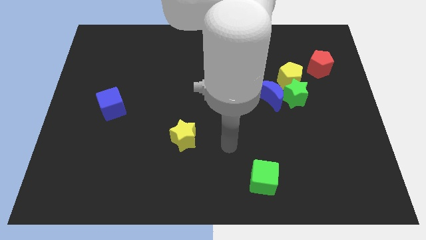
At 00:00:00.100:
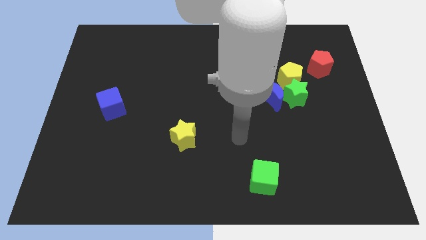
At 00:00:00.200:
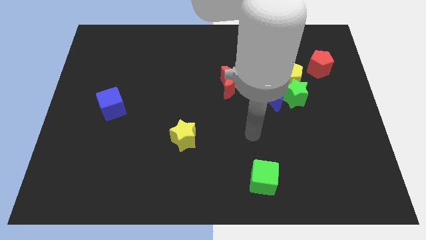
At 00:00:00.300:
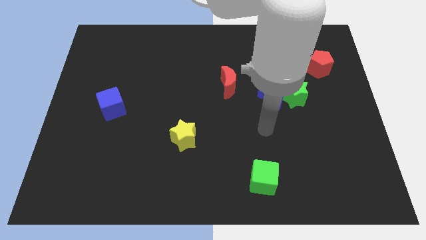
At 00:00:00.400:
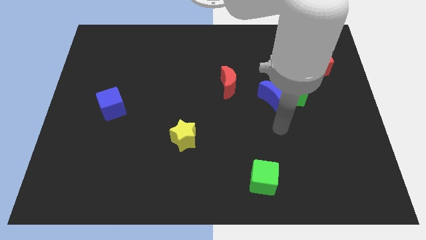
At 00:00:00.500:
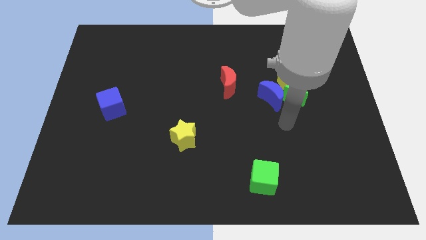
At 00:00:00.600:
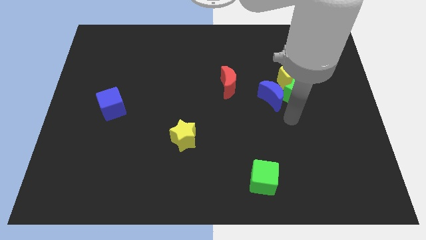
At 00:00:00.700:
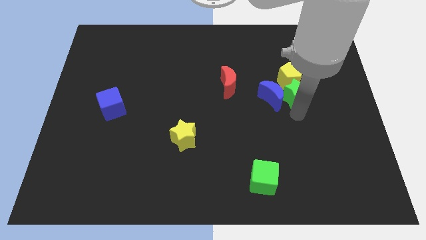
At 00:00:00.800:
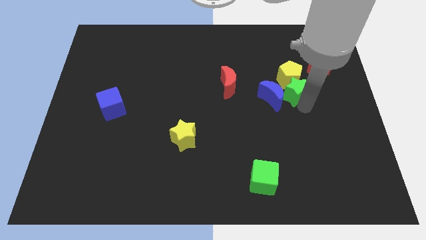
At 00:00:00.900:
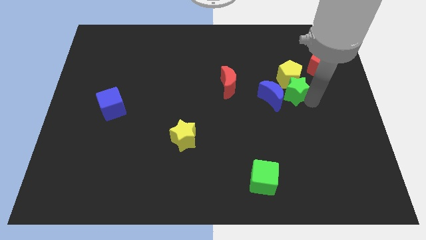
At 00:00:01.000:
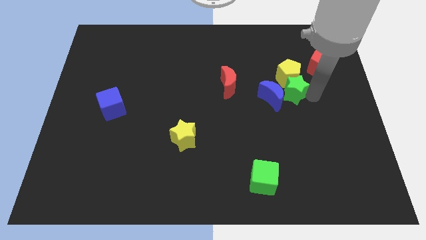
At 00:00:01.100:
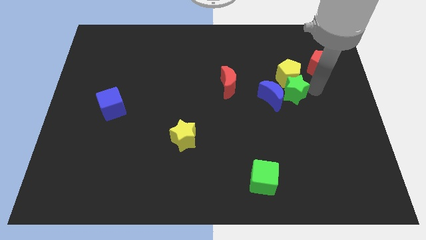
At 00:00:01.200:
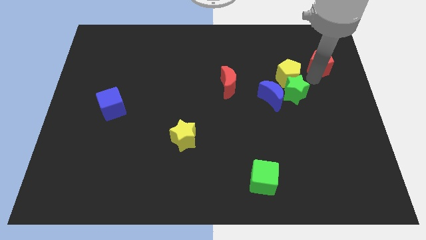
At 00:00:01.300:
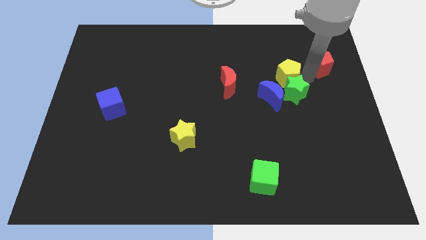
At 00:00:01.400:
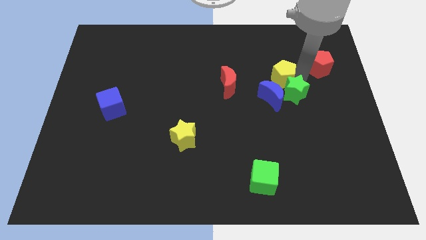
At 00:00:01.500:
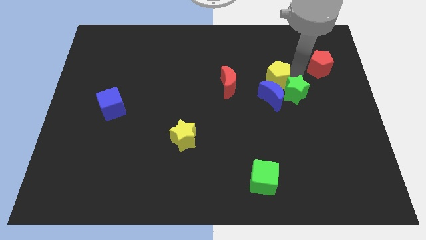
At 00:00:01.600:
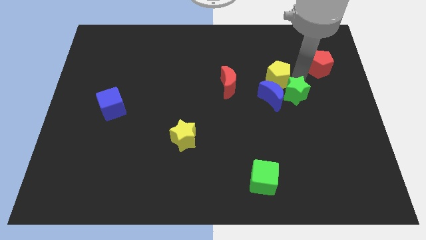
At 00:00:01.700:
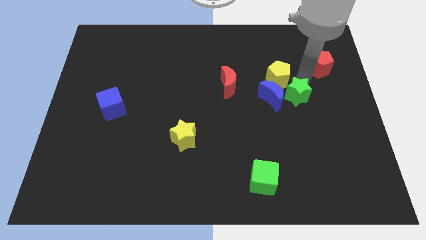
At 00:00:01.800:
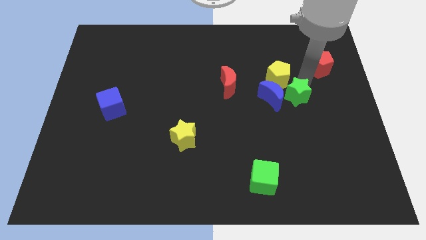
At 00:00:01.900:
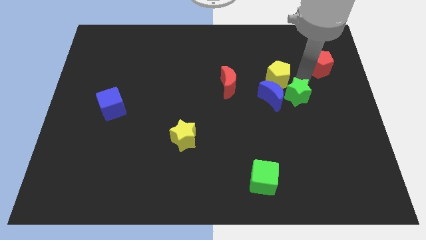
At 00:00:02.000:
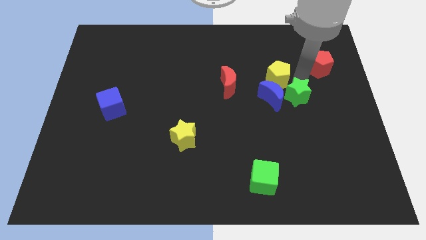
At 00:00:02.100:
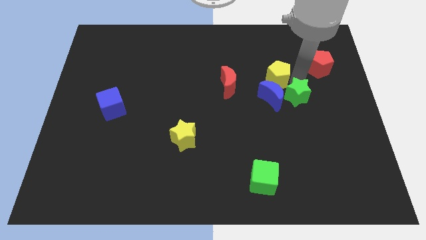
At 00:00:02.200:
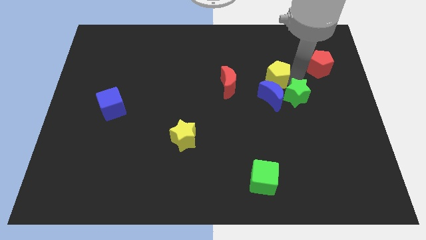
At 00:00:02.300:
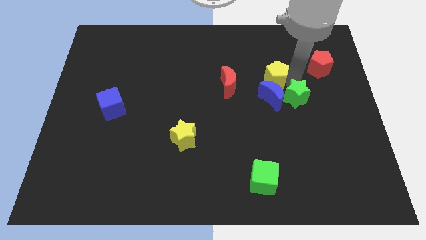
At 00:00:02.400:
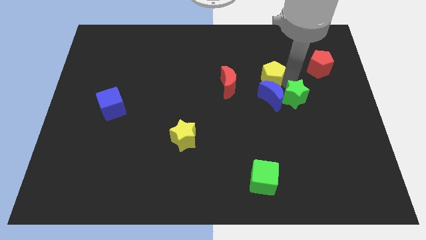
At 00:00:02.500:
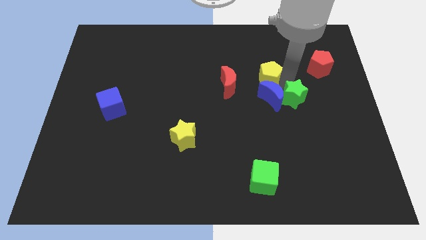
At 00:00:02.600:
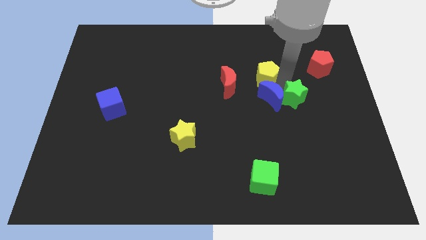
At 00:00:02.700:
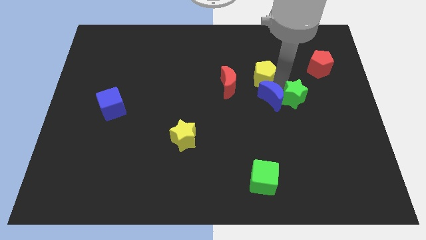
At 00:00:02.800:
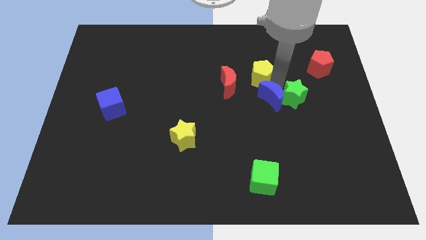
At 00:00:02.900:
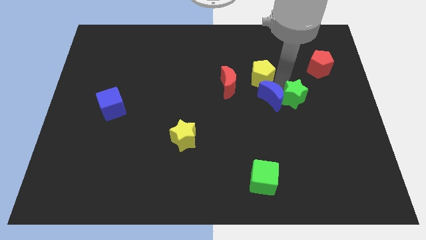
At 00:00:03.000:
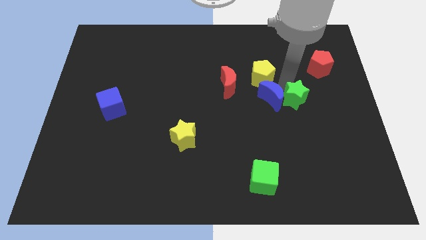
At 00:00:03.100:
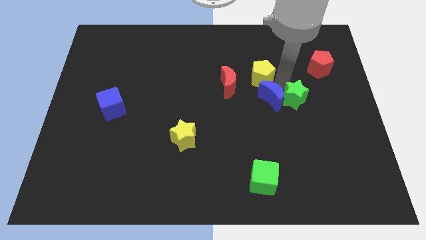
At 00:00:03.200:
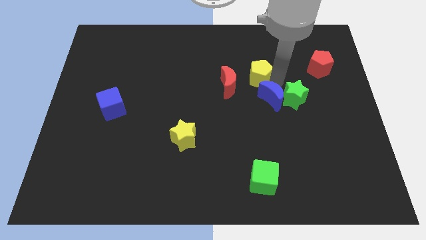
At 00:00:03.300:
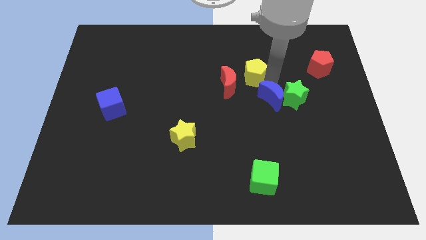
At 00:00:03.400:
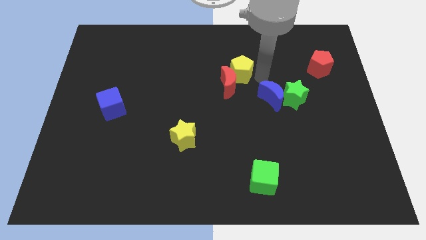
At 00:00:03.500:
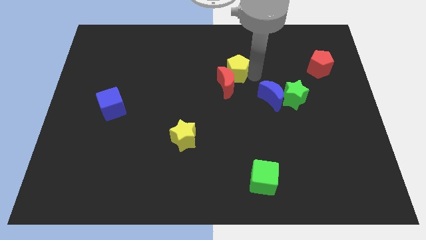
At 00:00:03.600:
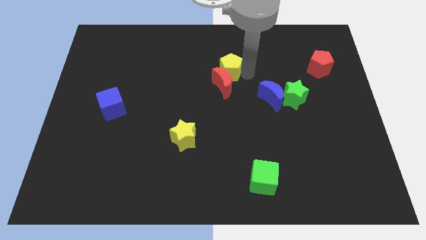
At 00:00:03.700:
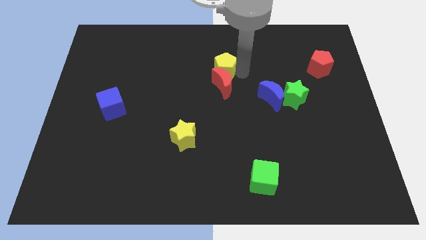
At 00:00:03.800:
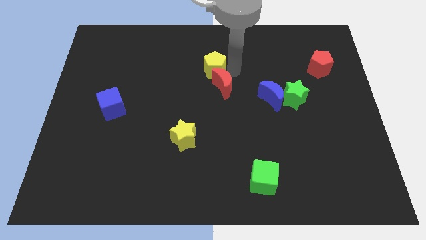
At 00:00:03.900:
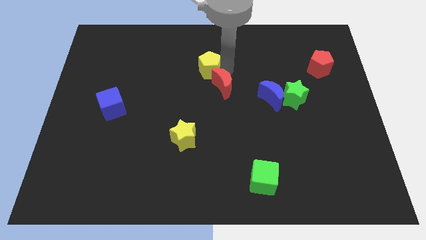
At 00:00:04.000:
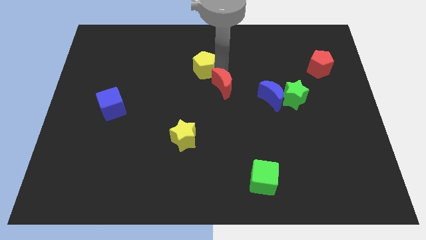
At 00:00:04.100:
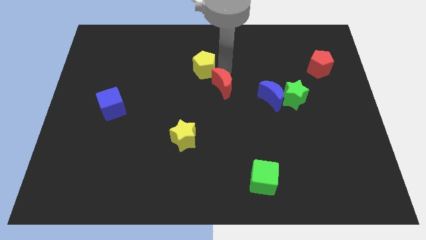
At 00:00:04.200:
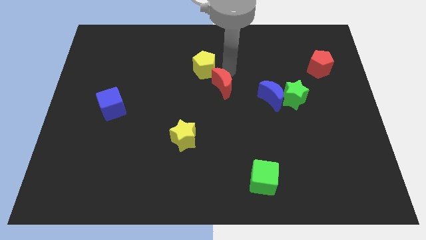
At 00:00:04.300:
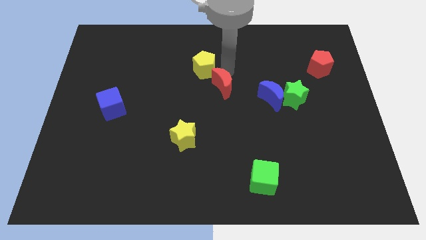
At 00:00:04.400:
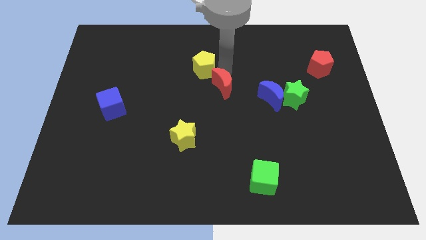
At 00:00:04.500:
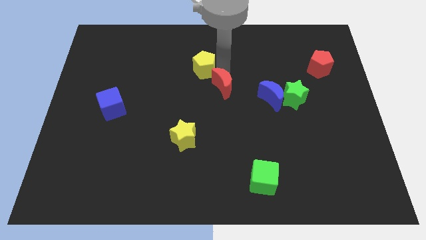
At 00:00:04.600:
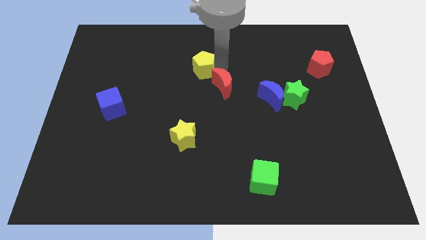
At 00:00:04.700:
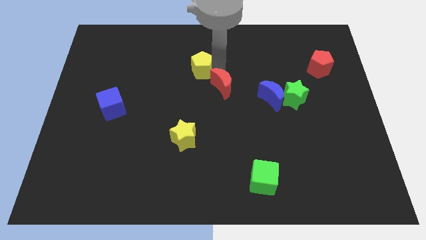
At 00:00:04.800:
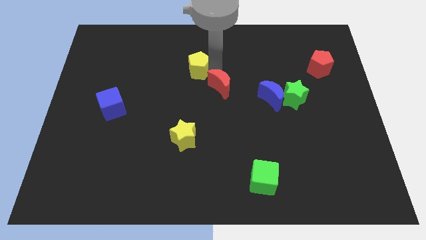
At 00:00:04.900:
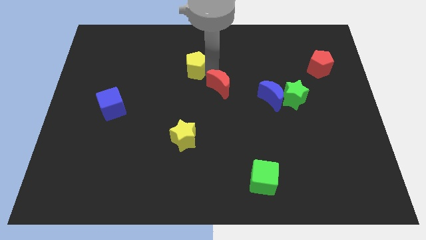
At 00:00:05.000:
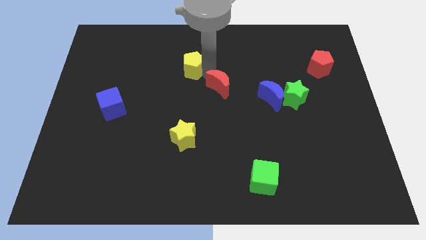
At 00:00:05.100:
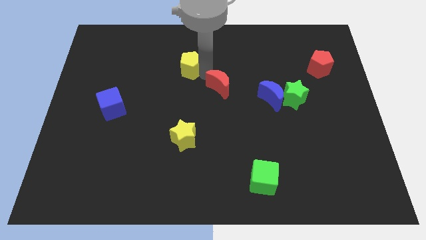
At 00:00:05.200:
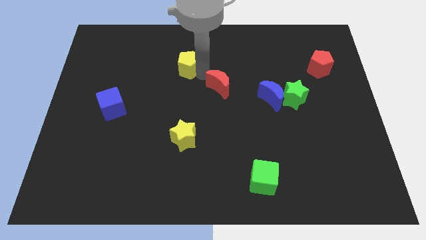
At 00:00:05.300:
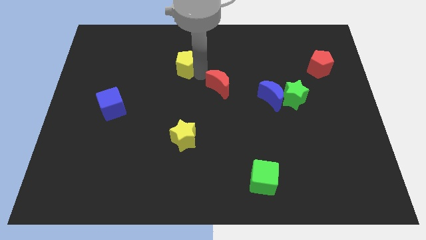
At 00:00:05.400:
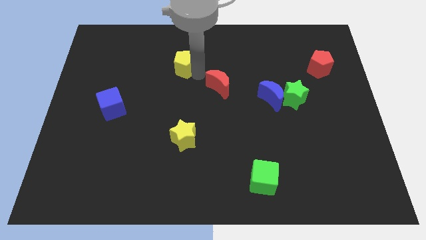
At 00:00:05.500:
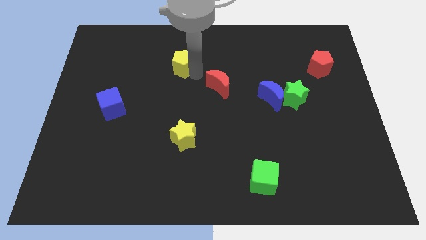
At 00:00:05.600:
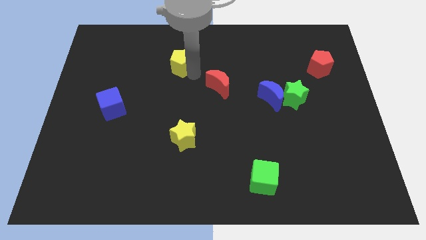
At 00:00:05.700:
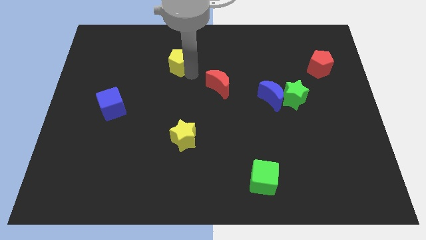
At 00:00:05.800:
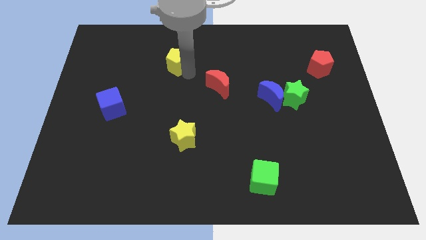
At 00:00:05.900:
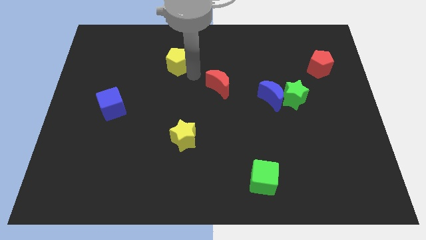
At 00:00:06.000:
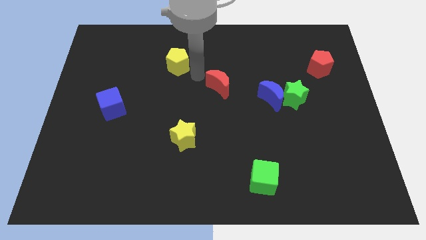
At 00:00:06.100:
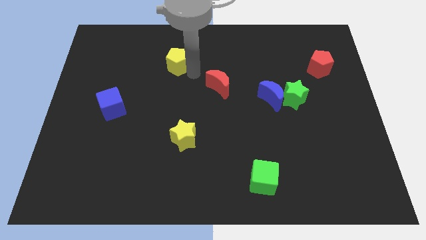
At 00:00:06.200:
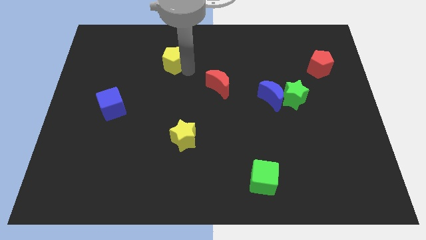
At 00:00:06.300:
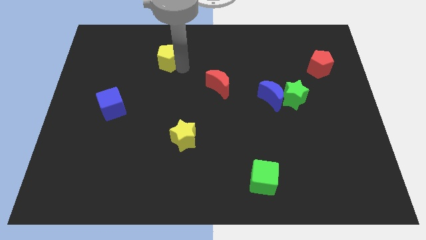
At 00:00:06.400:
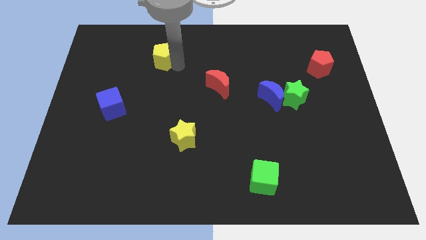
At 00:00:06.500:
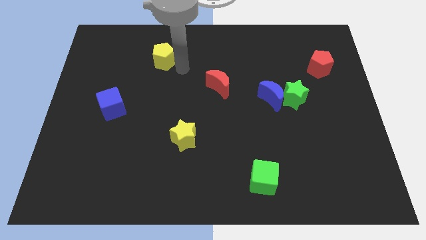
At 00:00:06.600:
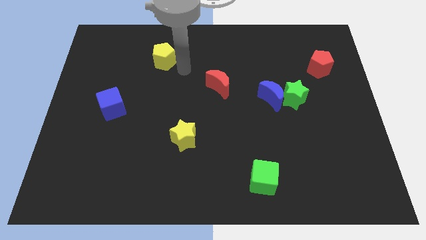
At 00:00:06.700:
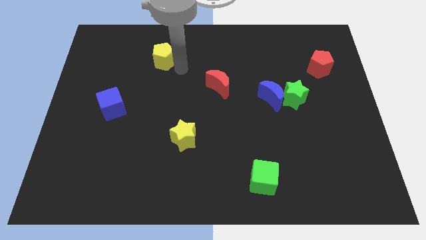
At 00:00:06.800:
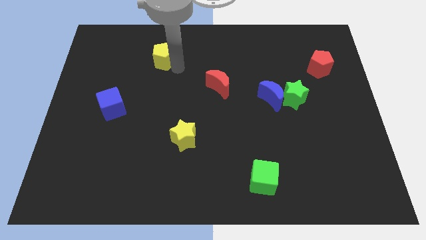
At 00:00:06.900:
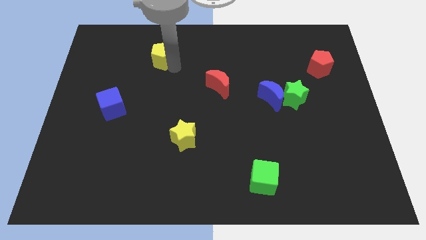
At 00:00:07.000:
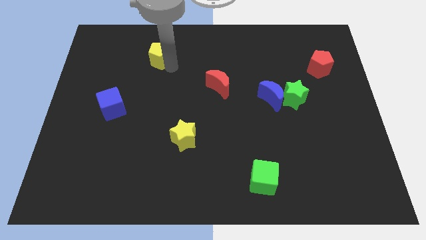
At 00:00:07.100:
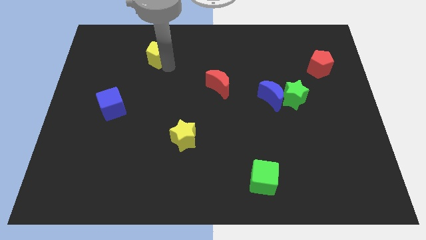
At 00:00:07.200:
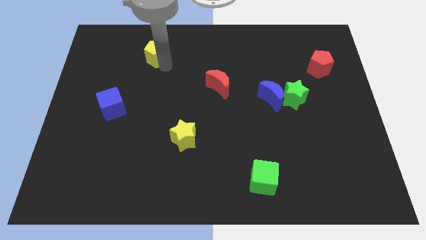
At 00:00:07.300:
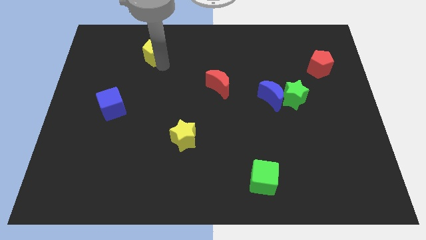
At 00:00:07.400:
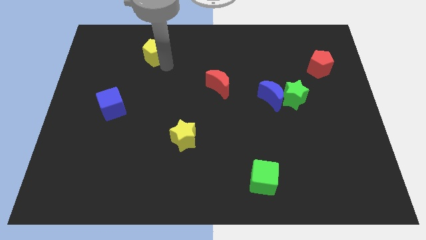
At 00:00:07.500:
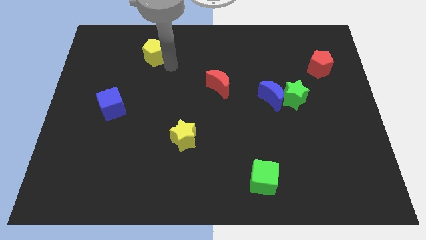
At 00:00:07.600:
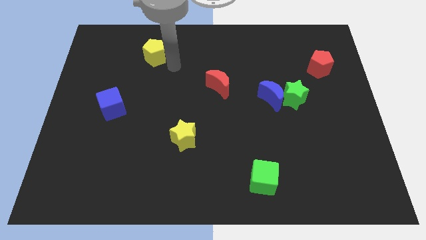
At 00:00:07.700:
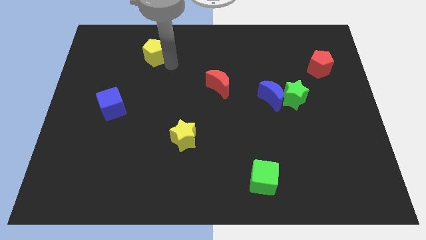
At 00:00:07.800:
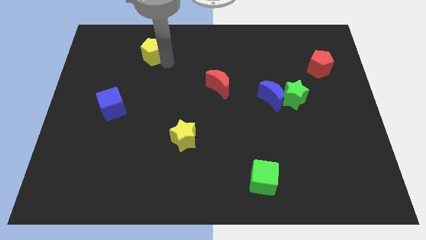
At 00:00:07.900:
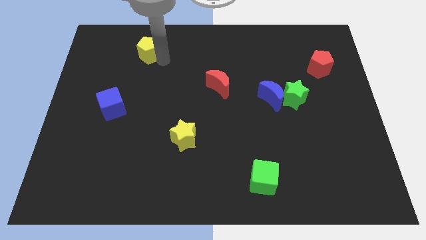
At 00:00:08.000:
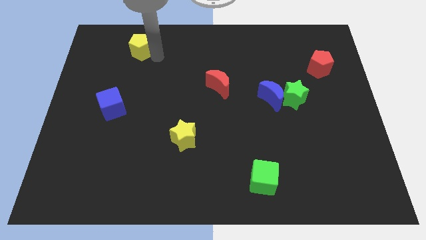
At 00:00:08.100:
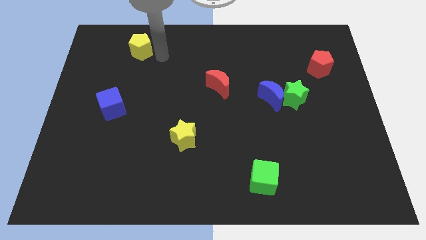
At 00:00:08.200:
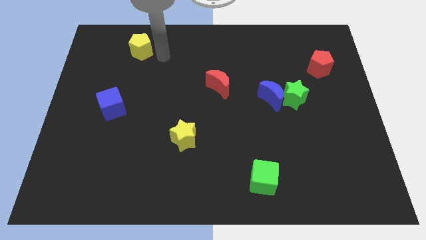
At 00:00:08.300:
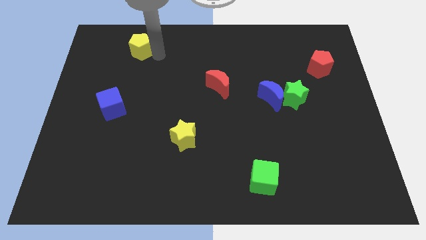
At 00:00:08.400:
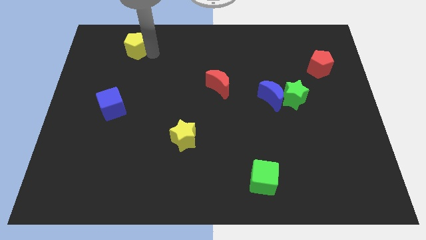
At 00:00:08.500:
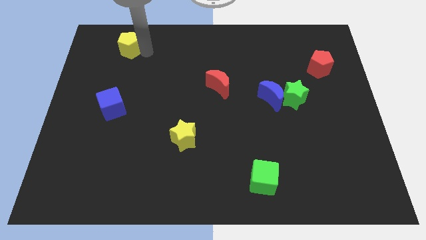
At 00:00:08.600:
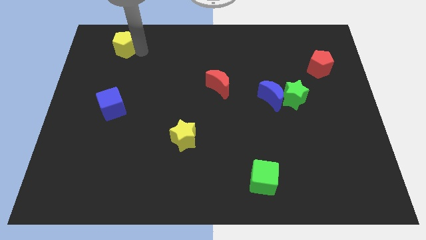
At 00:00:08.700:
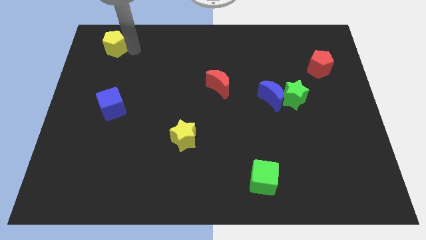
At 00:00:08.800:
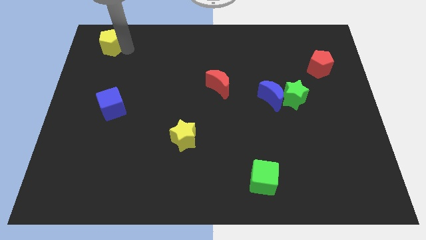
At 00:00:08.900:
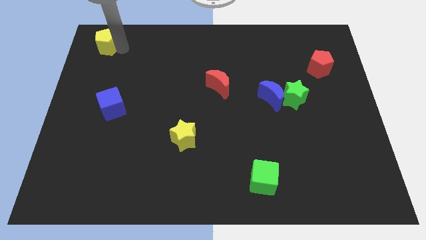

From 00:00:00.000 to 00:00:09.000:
put the yellow pentagon to the top left of the board
